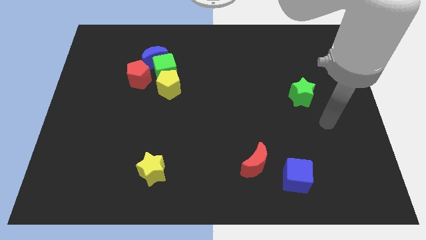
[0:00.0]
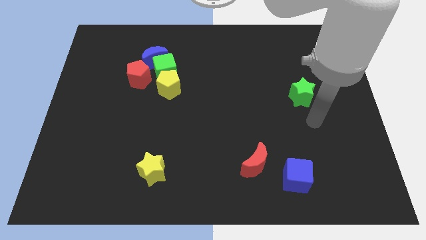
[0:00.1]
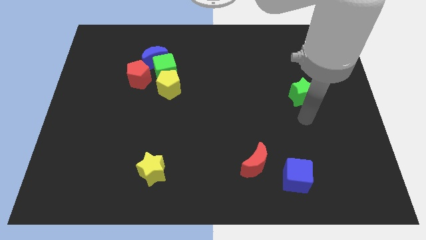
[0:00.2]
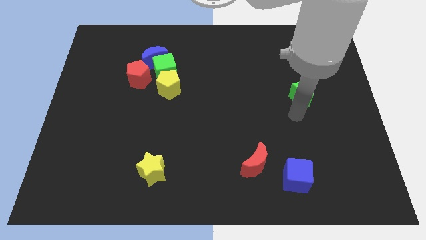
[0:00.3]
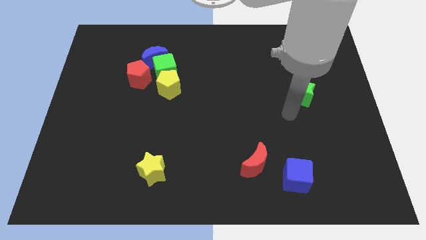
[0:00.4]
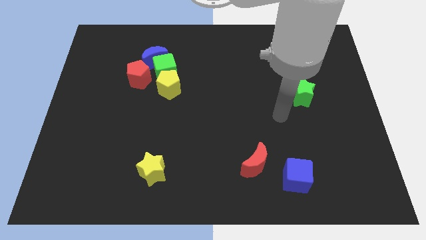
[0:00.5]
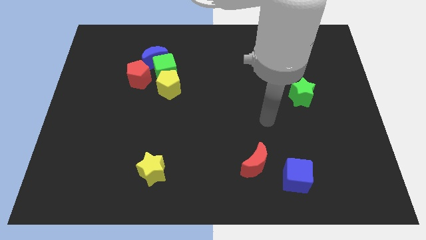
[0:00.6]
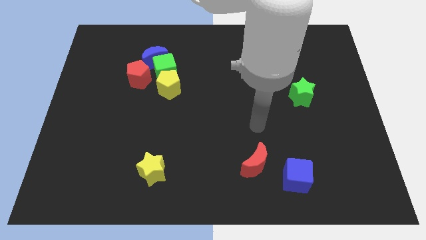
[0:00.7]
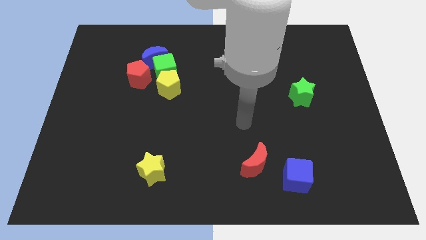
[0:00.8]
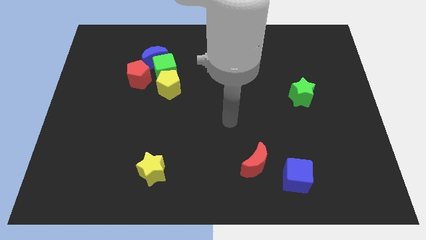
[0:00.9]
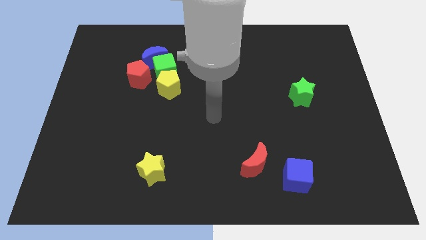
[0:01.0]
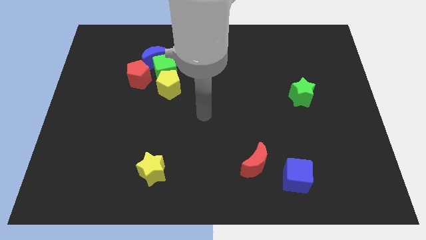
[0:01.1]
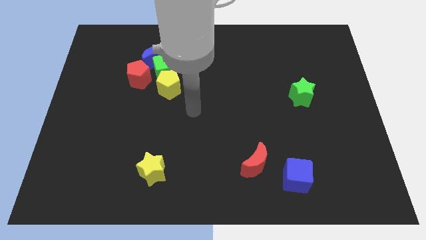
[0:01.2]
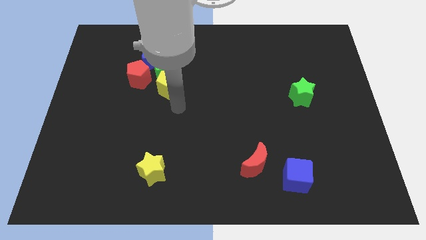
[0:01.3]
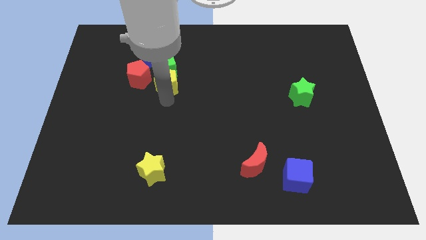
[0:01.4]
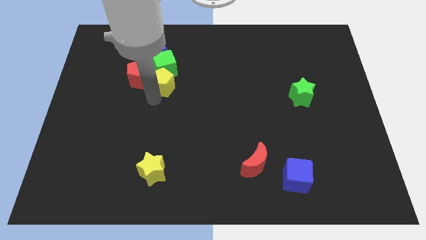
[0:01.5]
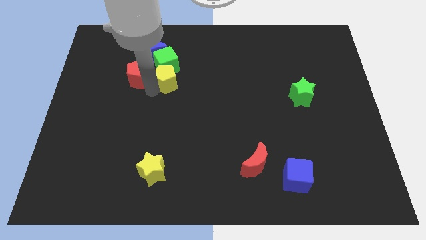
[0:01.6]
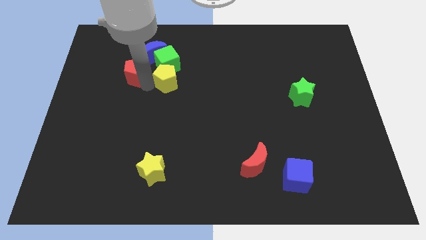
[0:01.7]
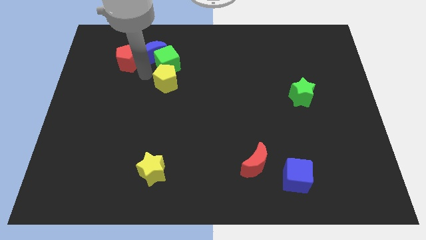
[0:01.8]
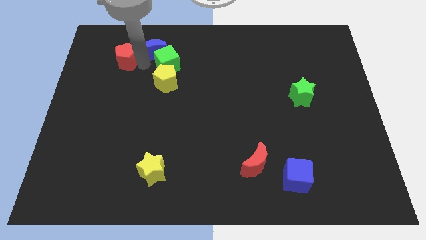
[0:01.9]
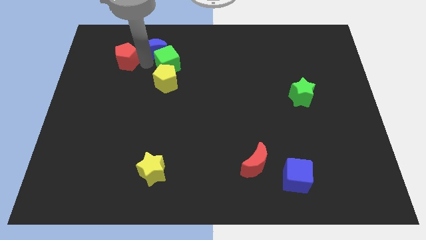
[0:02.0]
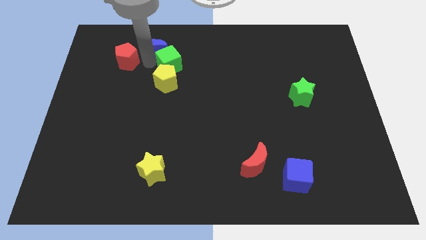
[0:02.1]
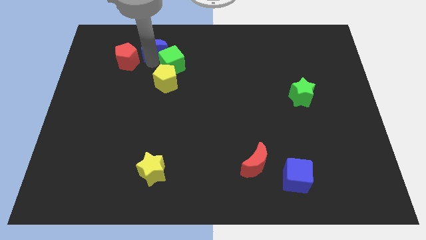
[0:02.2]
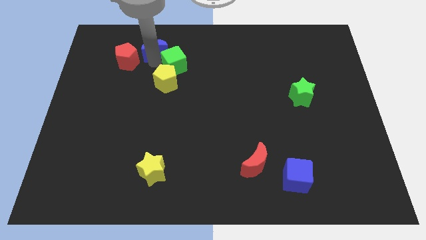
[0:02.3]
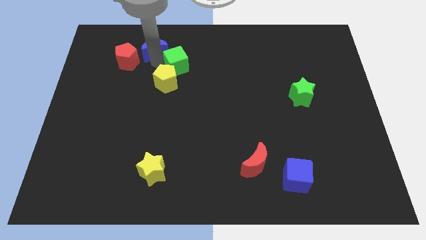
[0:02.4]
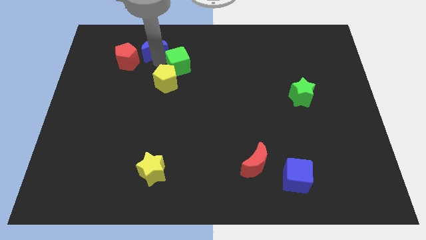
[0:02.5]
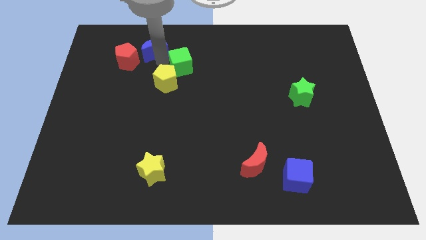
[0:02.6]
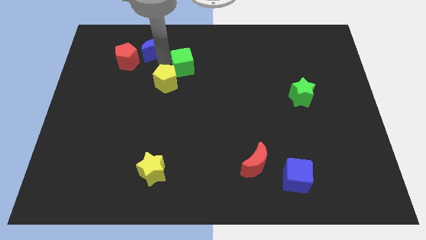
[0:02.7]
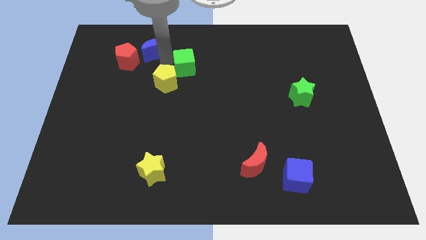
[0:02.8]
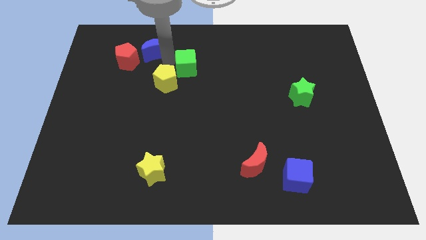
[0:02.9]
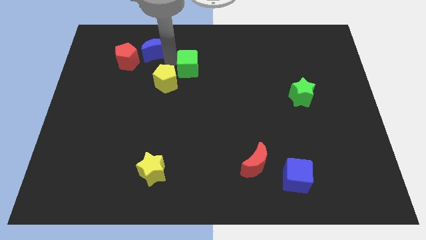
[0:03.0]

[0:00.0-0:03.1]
move the green cube away from the clump

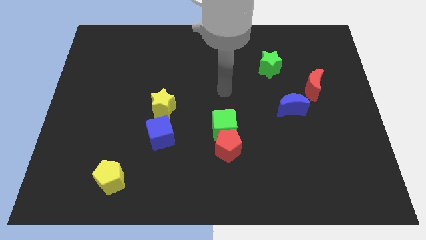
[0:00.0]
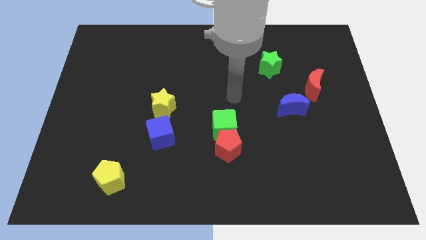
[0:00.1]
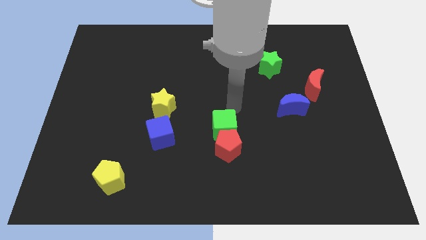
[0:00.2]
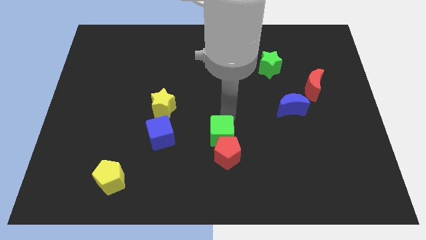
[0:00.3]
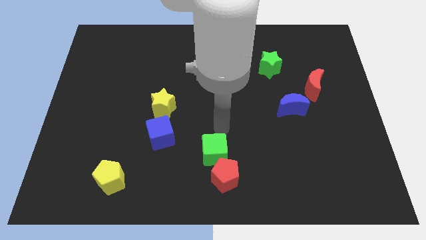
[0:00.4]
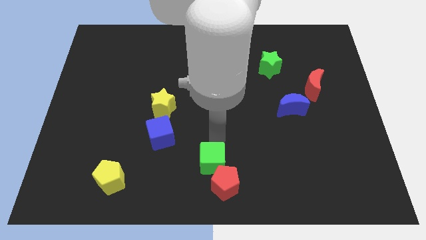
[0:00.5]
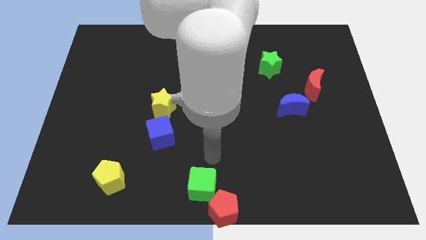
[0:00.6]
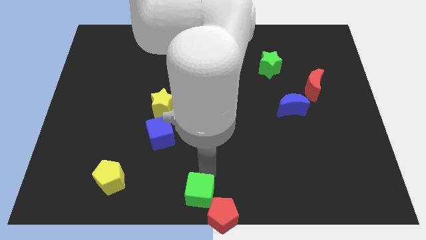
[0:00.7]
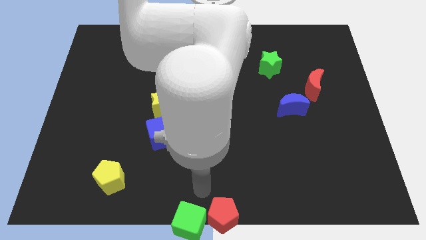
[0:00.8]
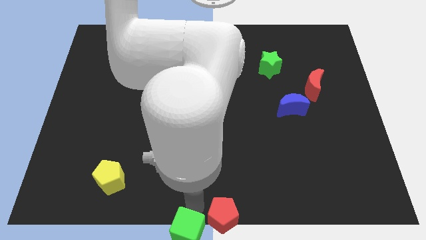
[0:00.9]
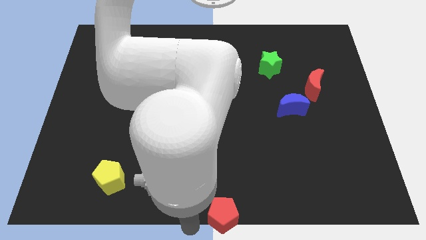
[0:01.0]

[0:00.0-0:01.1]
separate the red pentagon from the green cube

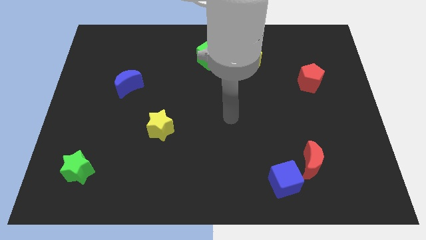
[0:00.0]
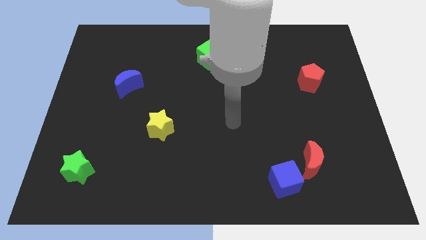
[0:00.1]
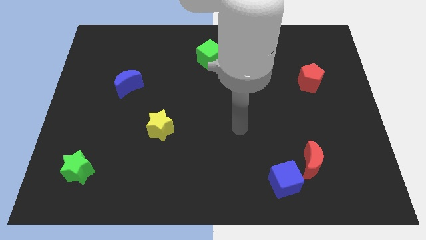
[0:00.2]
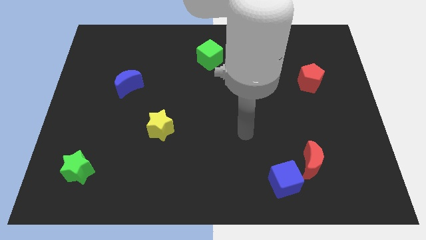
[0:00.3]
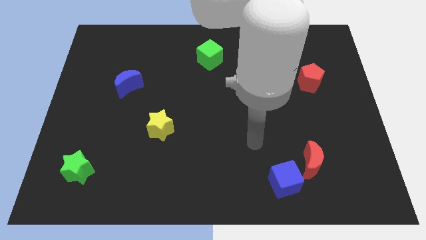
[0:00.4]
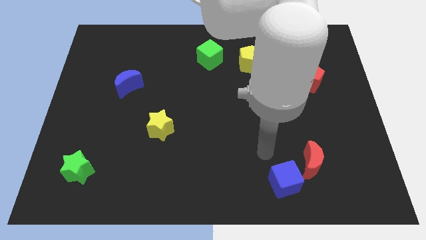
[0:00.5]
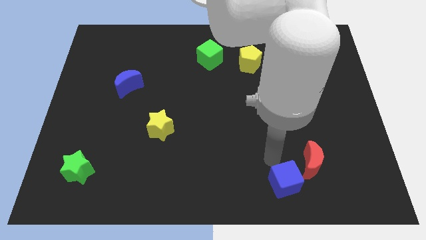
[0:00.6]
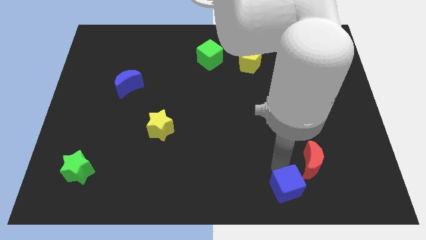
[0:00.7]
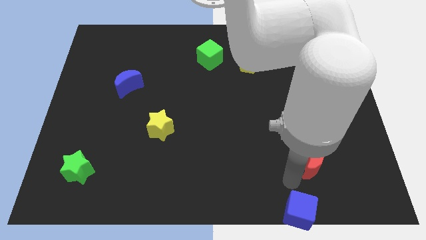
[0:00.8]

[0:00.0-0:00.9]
pull the red moon apart from the blue cube

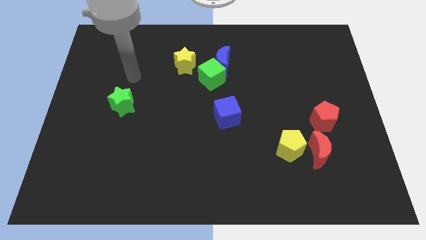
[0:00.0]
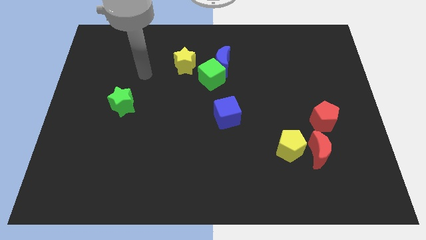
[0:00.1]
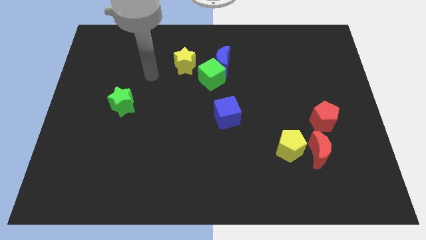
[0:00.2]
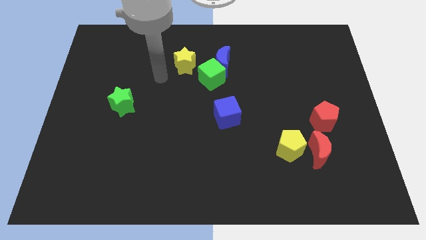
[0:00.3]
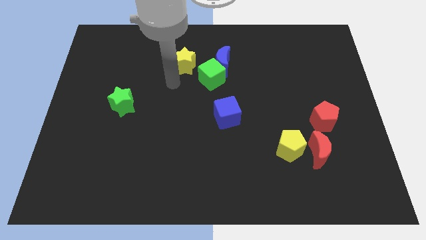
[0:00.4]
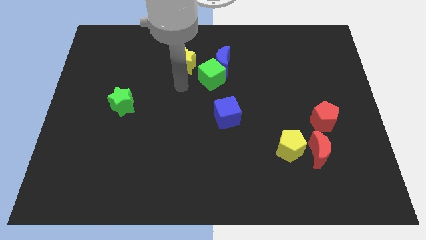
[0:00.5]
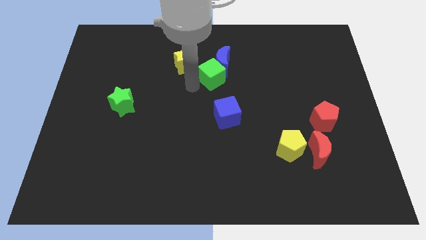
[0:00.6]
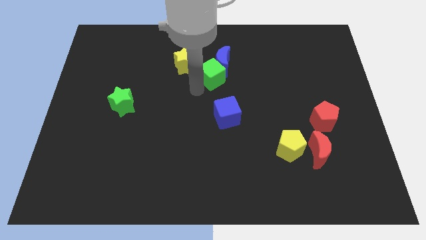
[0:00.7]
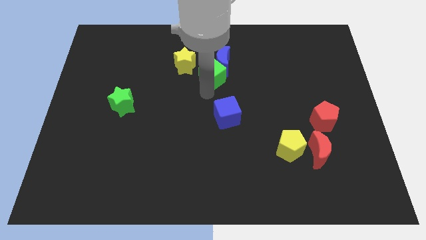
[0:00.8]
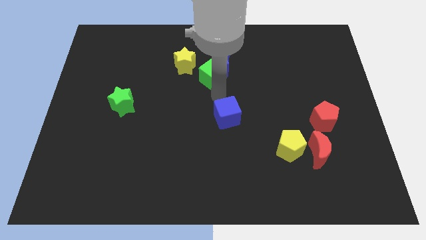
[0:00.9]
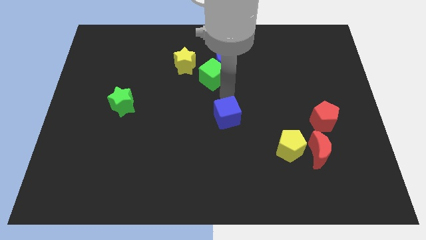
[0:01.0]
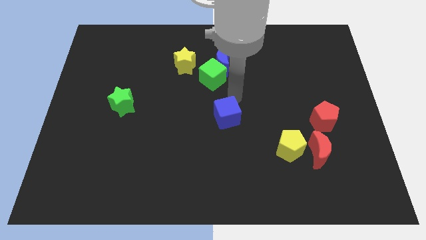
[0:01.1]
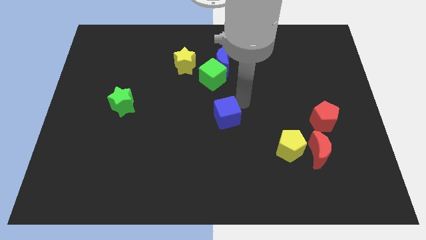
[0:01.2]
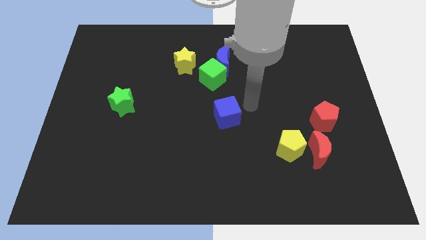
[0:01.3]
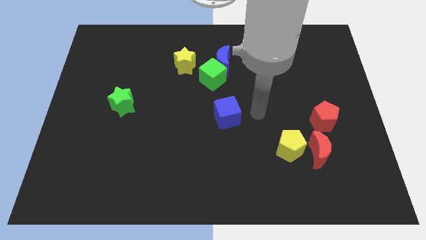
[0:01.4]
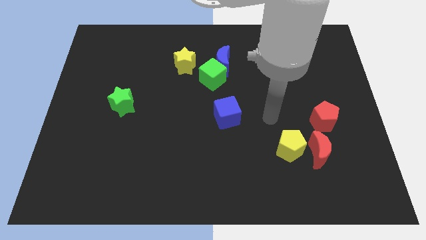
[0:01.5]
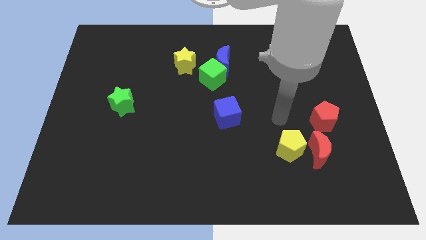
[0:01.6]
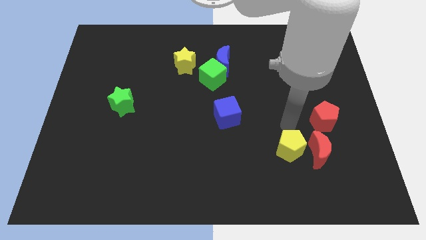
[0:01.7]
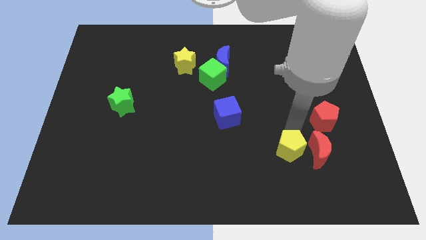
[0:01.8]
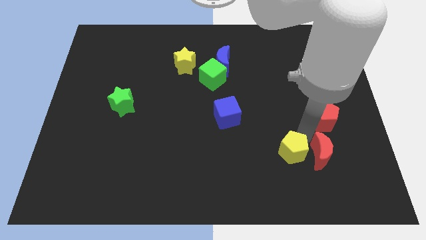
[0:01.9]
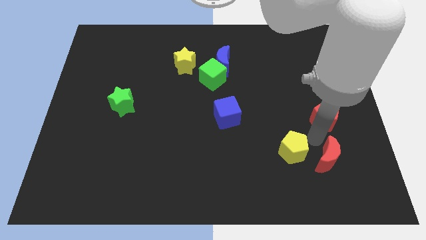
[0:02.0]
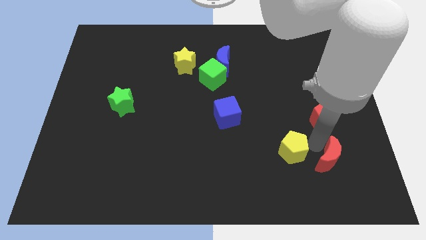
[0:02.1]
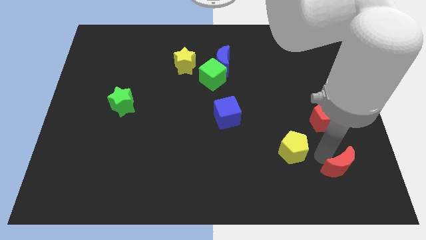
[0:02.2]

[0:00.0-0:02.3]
separate the yellow pentagon from the red moon

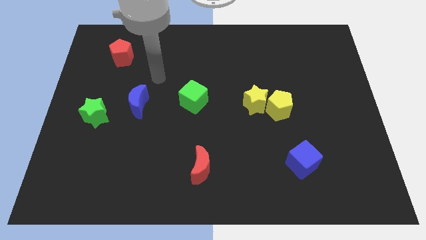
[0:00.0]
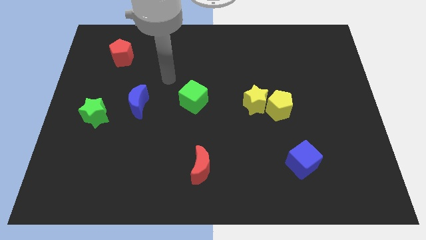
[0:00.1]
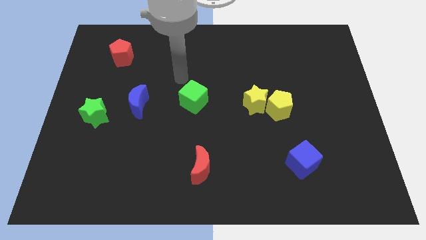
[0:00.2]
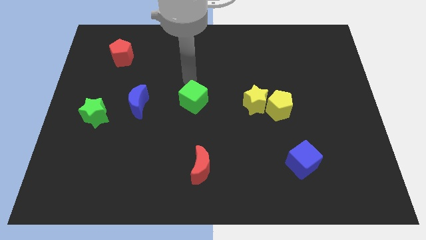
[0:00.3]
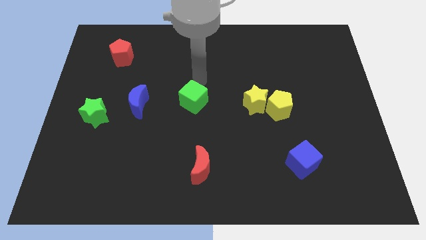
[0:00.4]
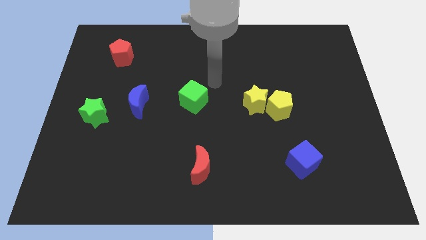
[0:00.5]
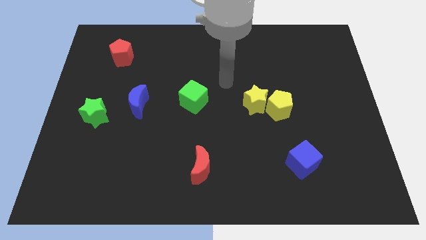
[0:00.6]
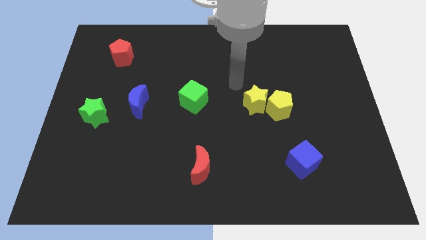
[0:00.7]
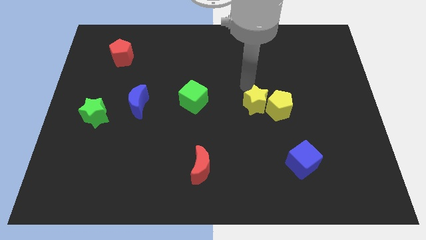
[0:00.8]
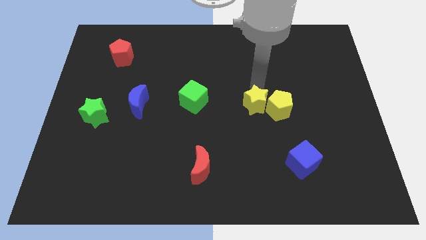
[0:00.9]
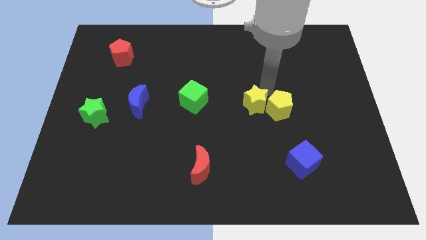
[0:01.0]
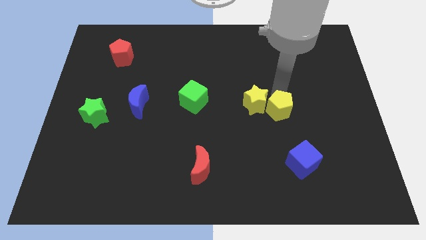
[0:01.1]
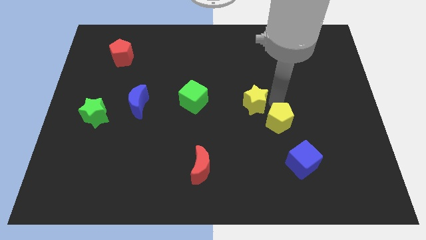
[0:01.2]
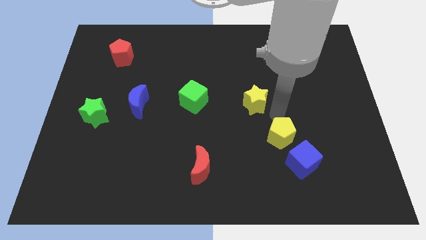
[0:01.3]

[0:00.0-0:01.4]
move the yellow star away from the yellow pentagon

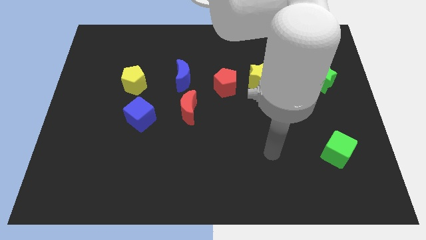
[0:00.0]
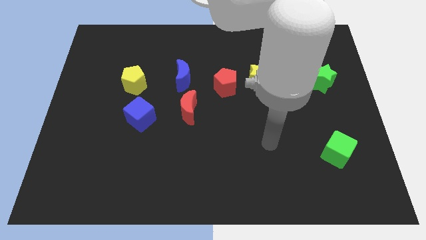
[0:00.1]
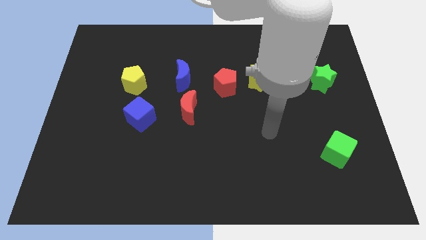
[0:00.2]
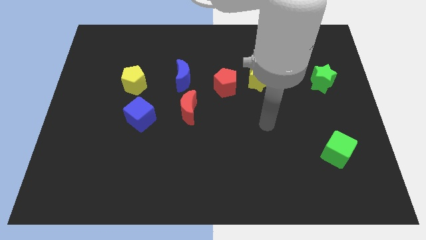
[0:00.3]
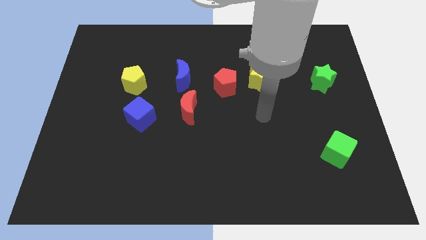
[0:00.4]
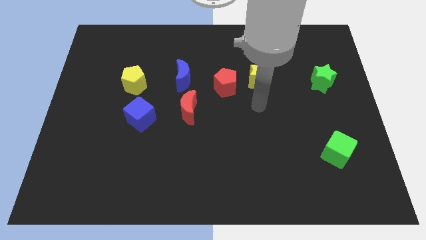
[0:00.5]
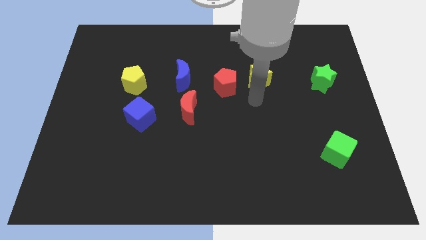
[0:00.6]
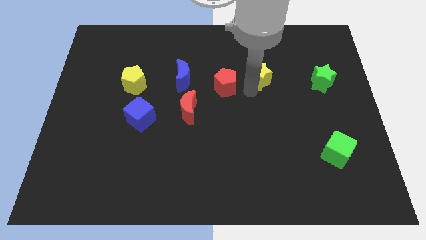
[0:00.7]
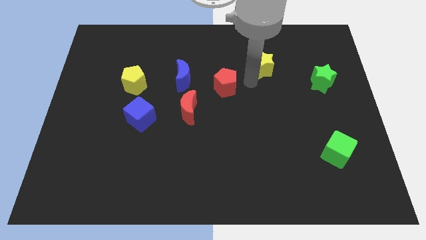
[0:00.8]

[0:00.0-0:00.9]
move the red pentagon away from the yellow star
